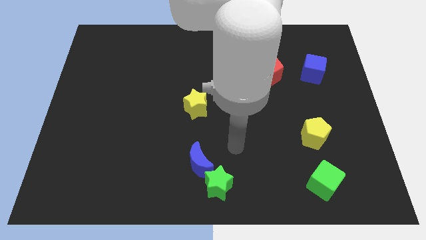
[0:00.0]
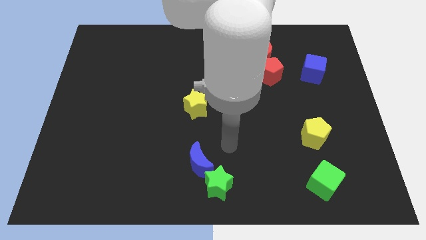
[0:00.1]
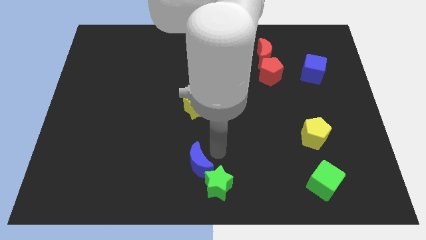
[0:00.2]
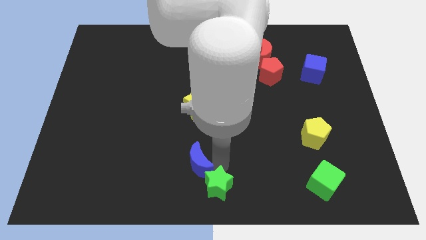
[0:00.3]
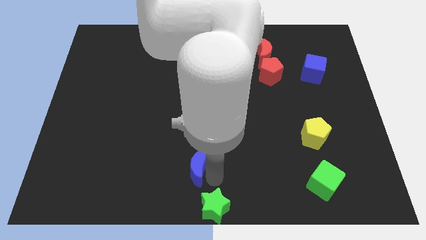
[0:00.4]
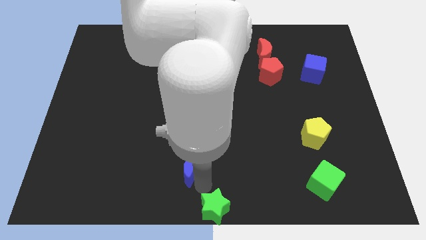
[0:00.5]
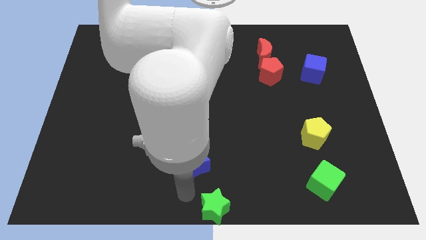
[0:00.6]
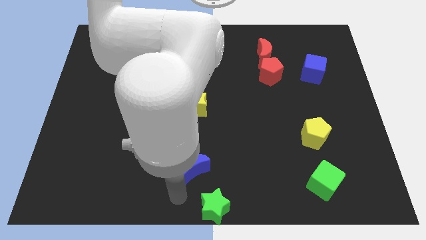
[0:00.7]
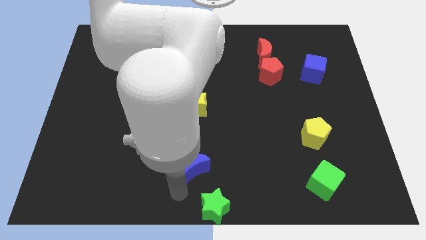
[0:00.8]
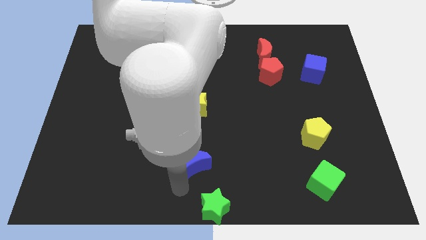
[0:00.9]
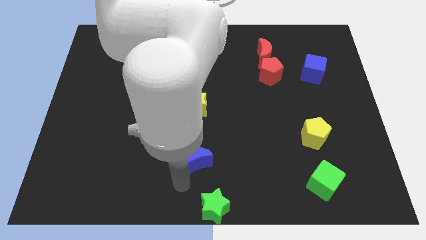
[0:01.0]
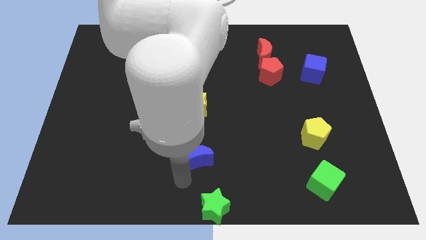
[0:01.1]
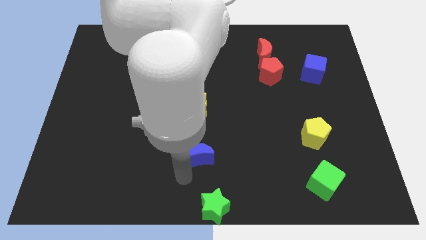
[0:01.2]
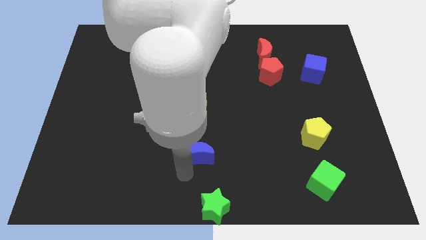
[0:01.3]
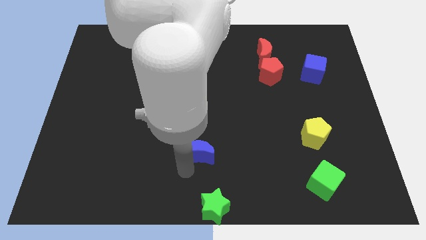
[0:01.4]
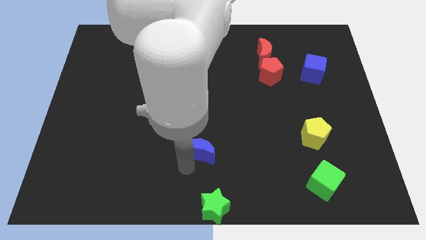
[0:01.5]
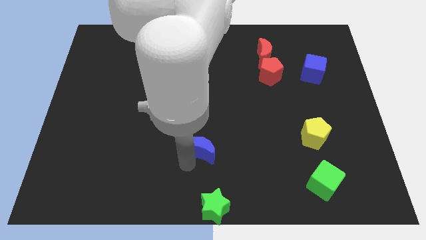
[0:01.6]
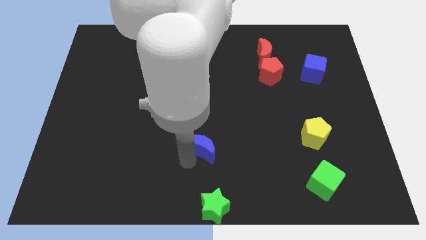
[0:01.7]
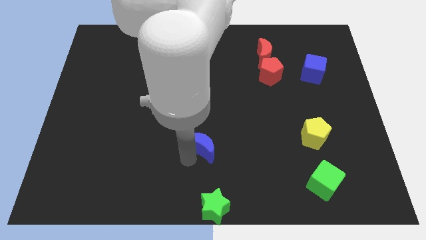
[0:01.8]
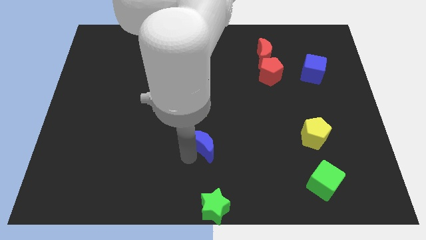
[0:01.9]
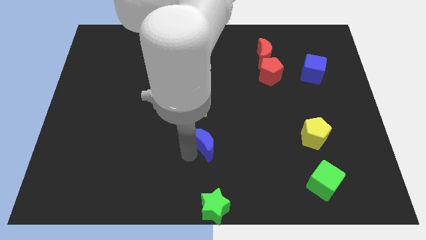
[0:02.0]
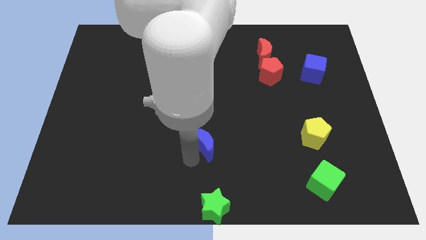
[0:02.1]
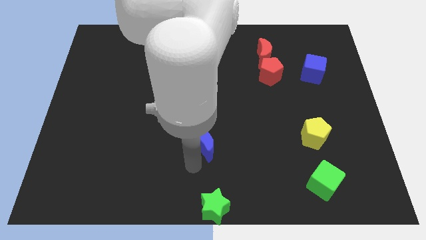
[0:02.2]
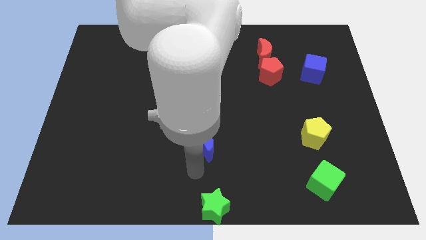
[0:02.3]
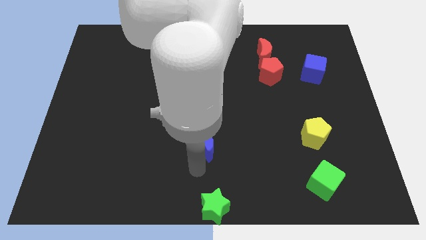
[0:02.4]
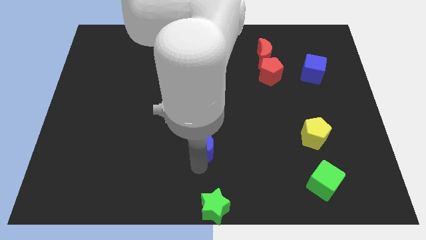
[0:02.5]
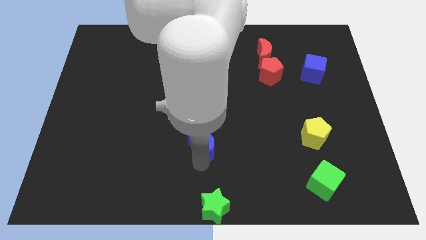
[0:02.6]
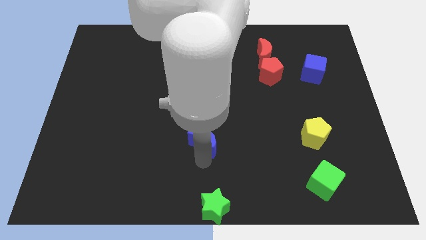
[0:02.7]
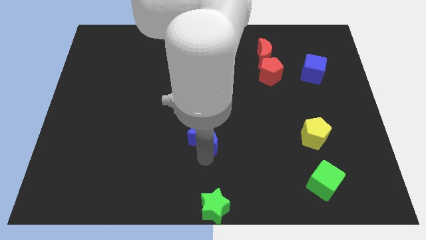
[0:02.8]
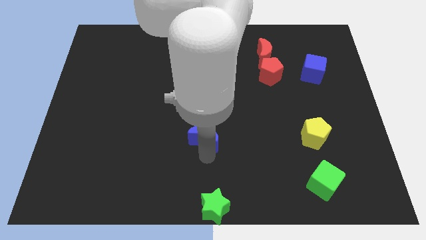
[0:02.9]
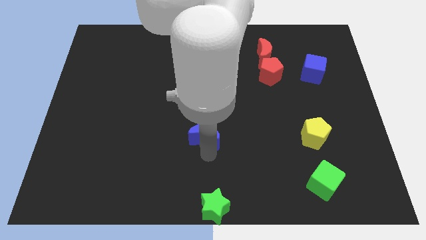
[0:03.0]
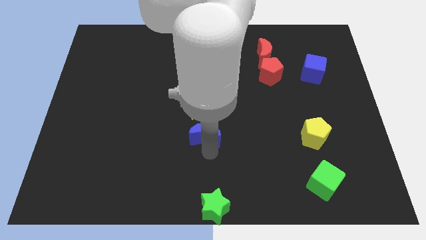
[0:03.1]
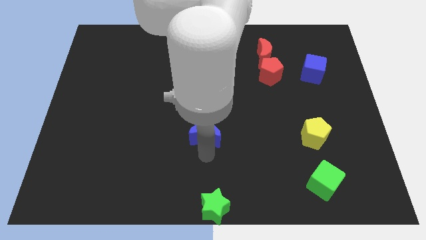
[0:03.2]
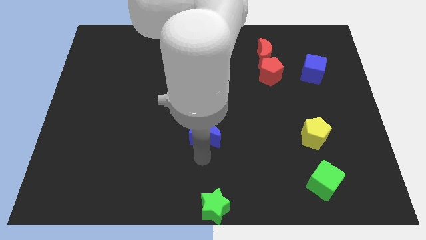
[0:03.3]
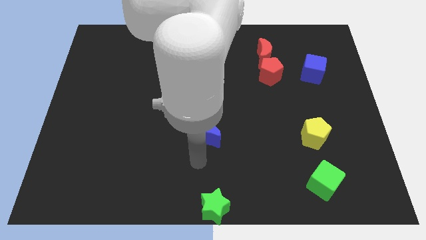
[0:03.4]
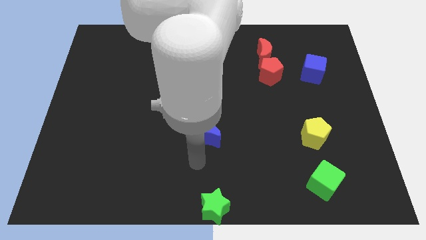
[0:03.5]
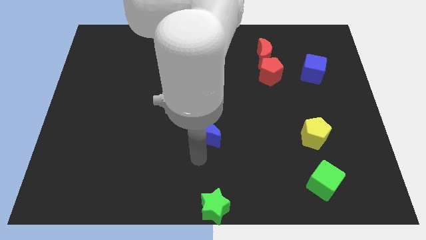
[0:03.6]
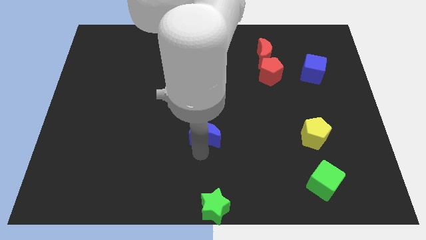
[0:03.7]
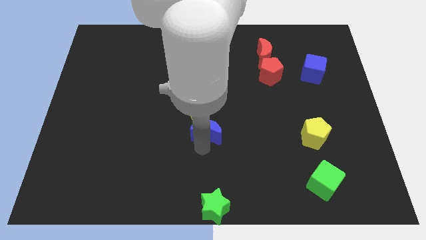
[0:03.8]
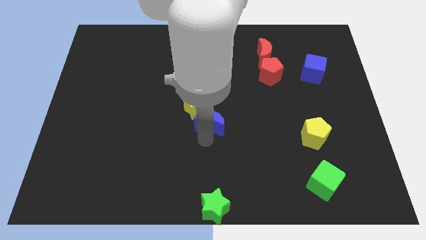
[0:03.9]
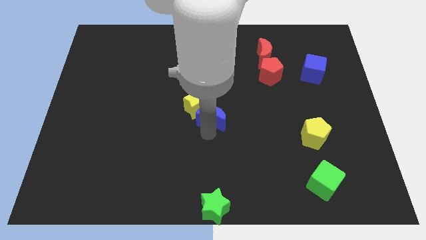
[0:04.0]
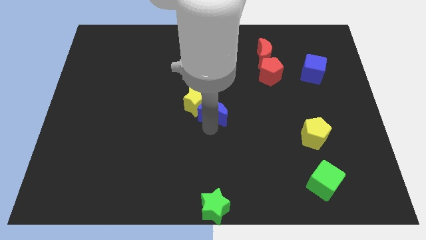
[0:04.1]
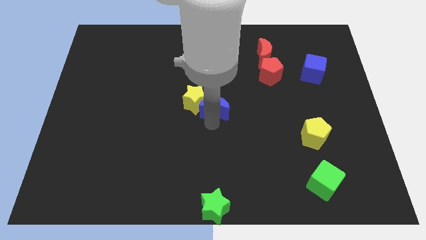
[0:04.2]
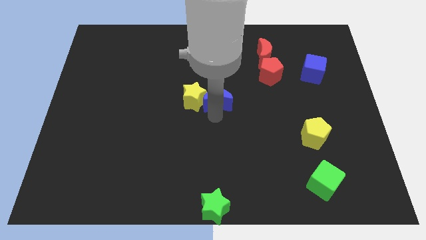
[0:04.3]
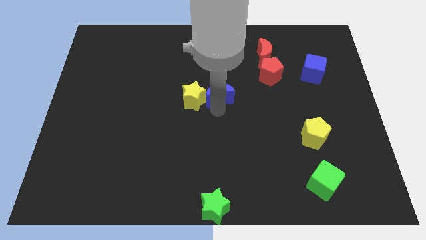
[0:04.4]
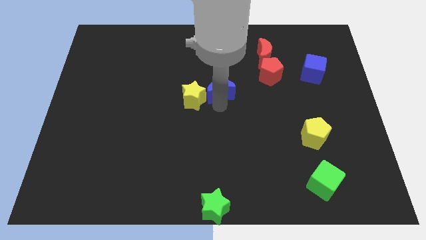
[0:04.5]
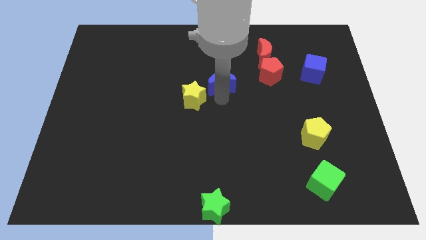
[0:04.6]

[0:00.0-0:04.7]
slide the blue moon upwards

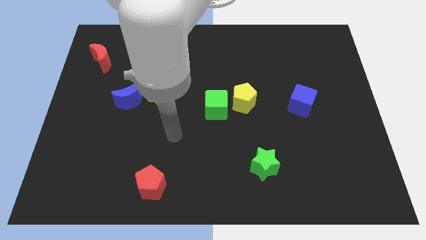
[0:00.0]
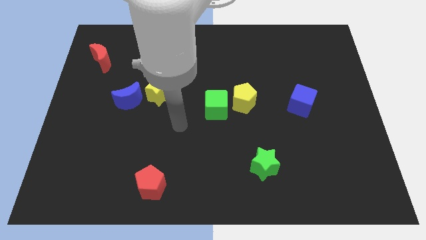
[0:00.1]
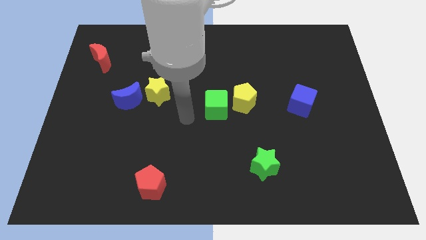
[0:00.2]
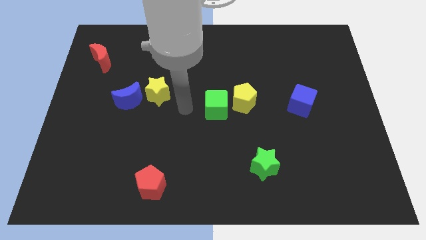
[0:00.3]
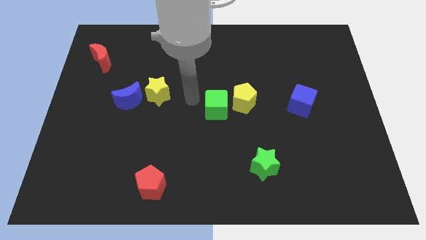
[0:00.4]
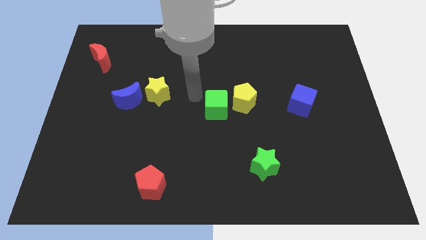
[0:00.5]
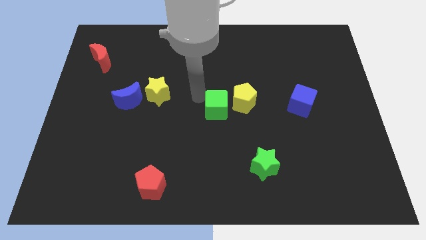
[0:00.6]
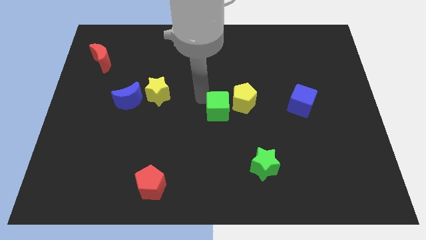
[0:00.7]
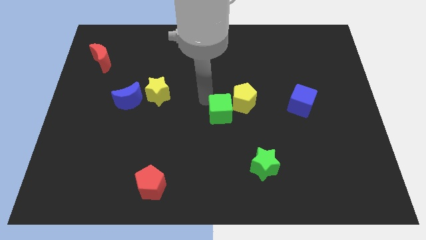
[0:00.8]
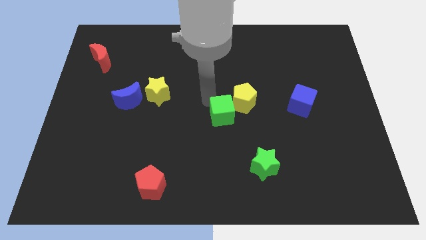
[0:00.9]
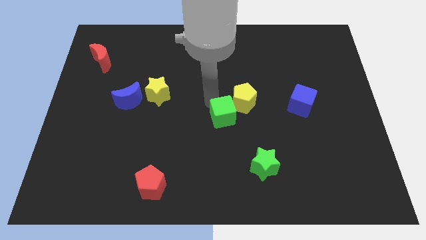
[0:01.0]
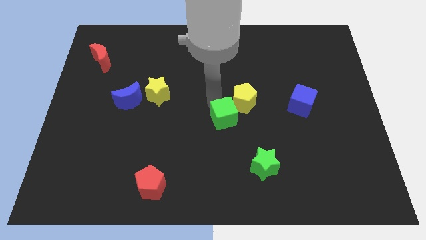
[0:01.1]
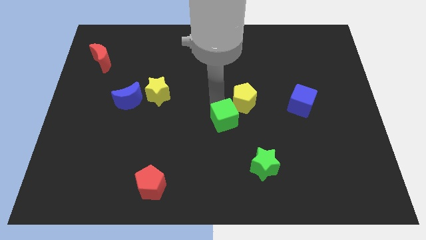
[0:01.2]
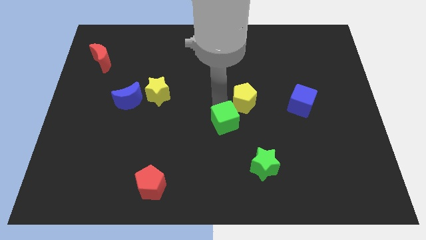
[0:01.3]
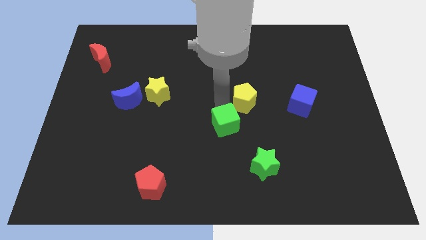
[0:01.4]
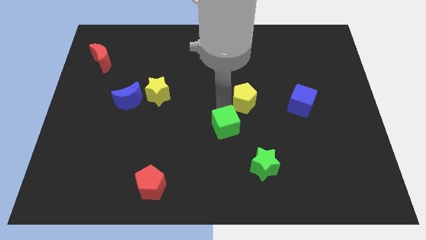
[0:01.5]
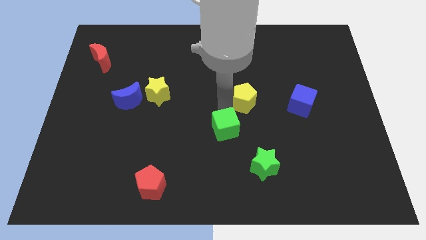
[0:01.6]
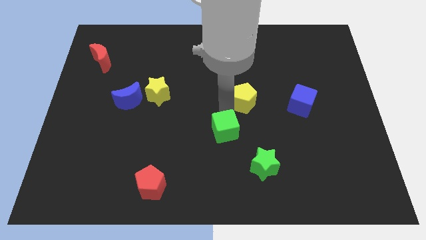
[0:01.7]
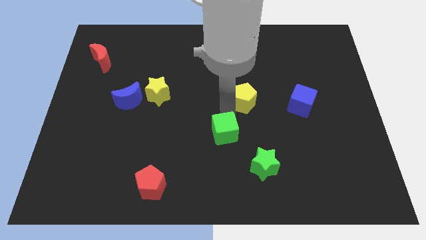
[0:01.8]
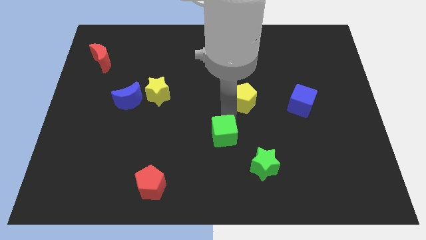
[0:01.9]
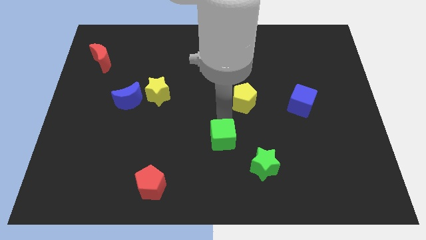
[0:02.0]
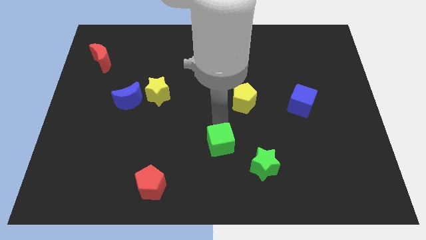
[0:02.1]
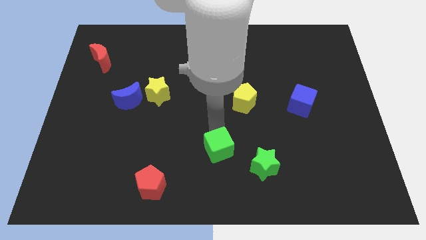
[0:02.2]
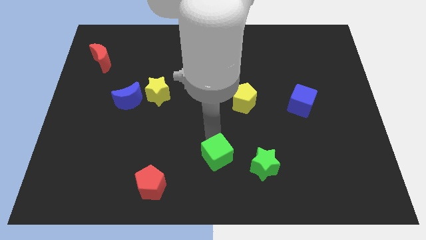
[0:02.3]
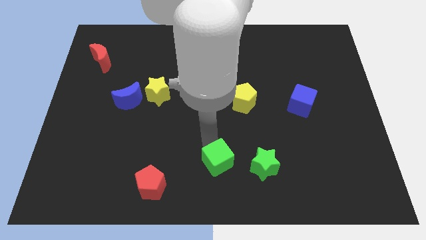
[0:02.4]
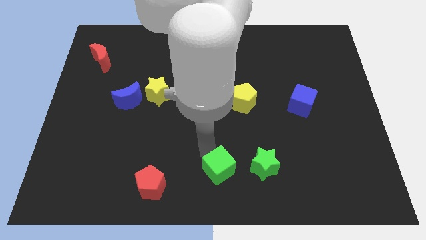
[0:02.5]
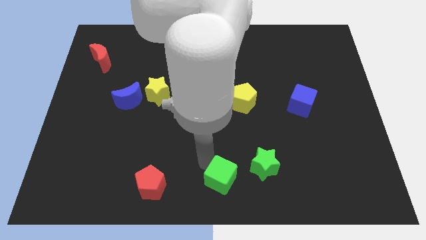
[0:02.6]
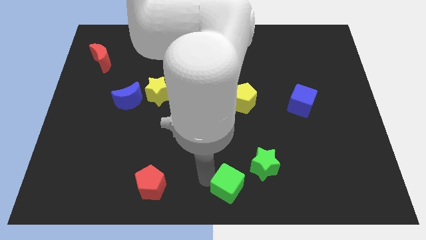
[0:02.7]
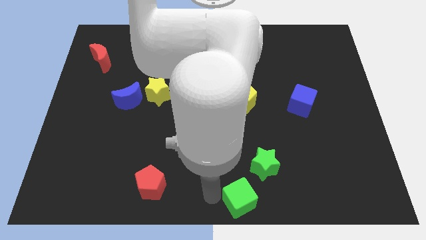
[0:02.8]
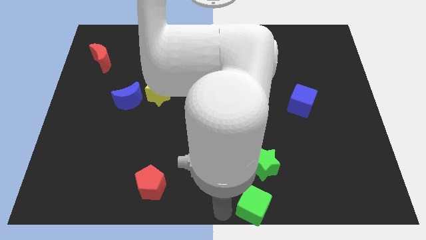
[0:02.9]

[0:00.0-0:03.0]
slide the green cube downwards and to the right a little
